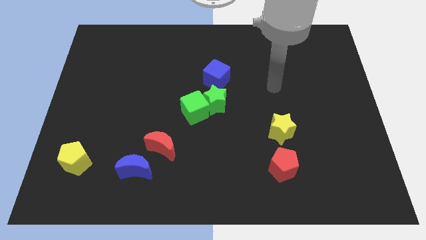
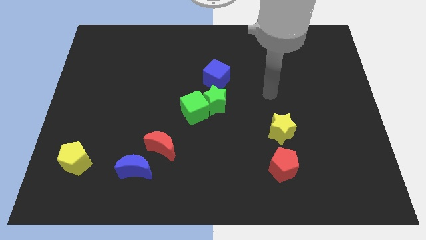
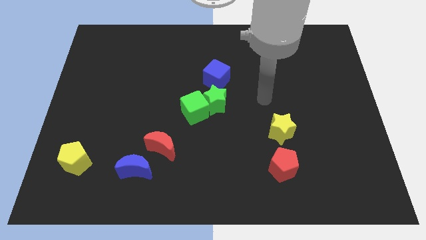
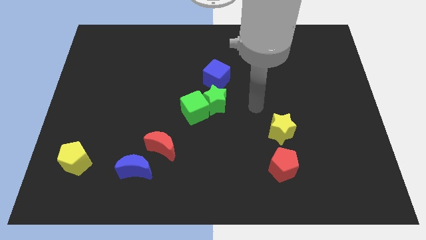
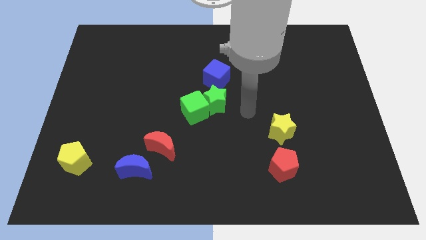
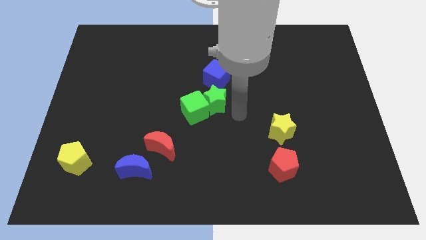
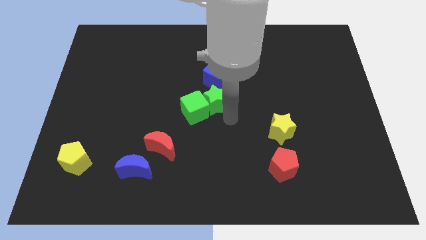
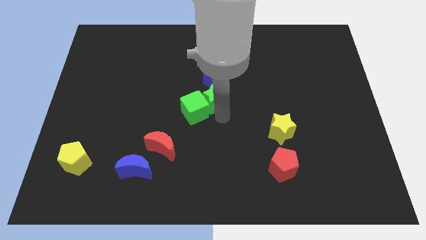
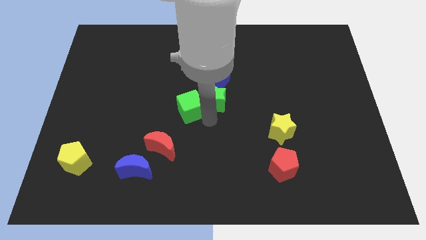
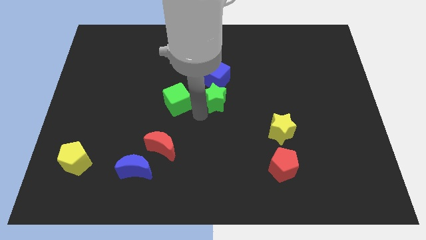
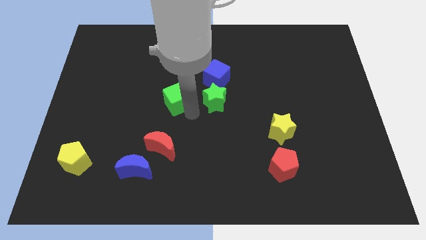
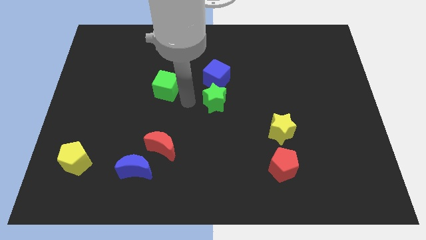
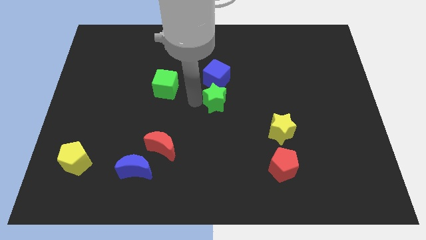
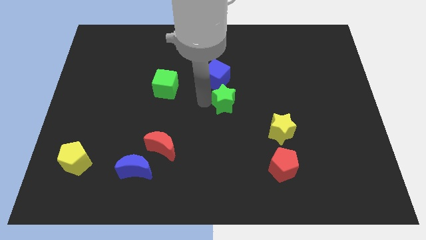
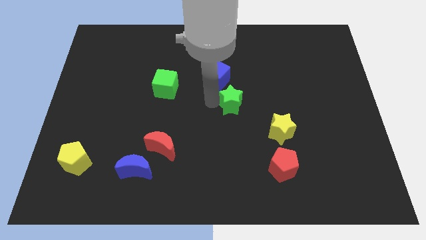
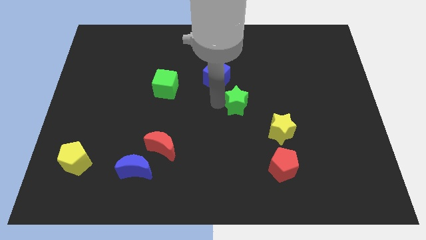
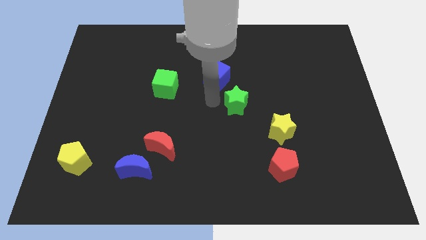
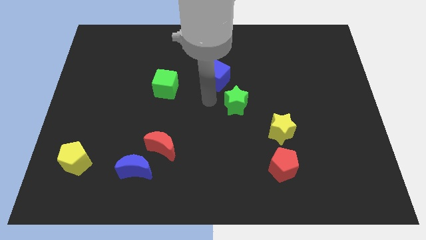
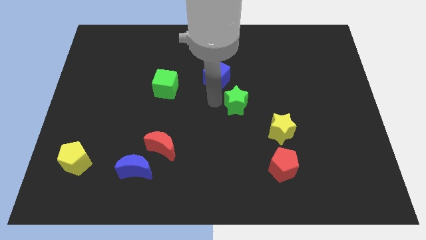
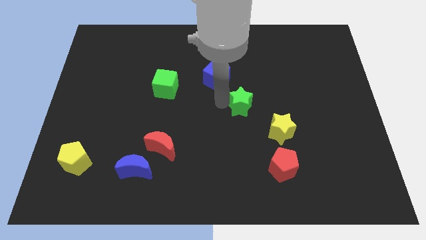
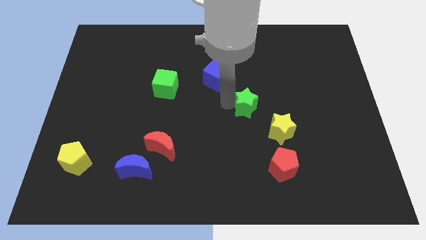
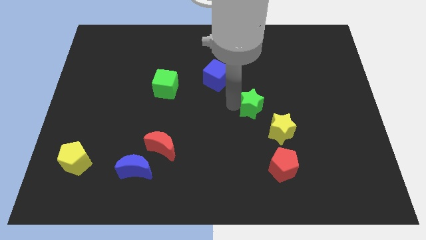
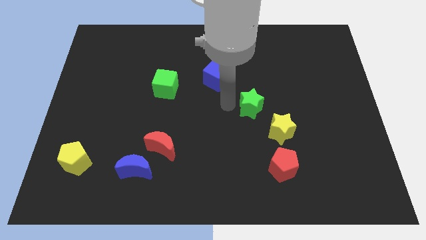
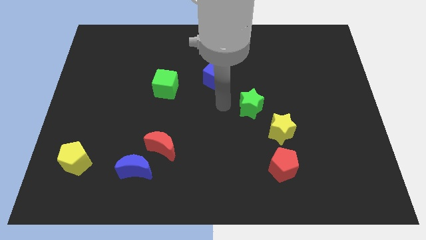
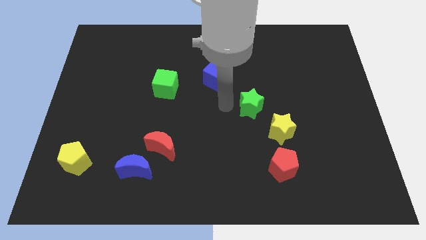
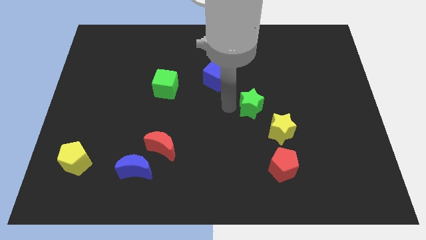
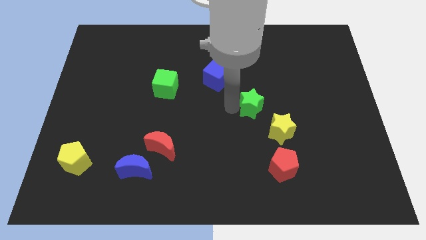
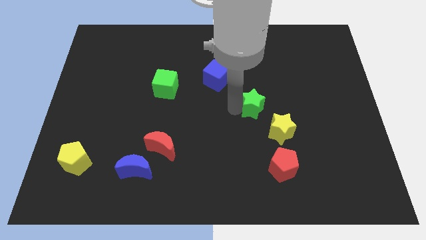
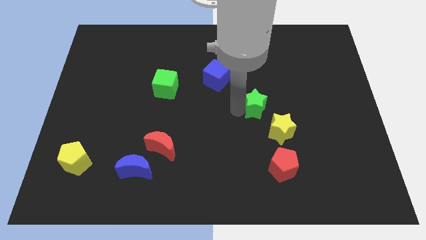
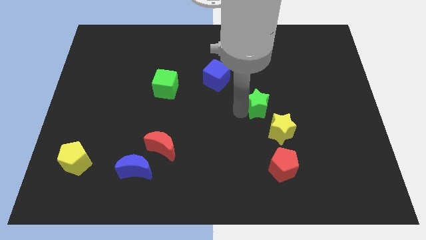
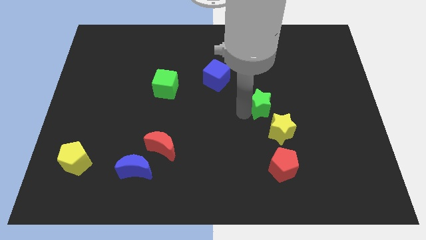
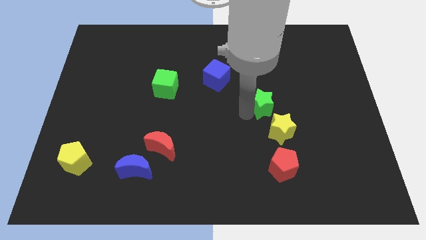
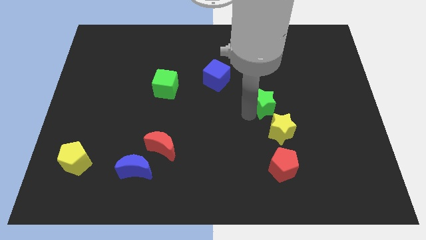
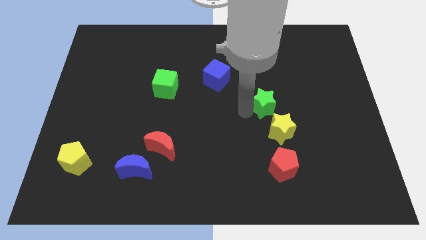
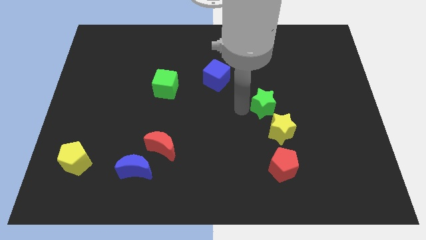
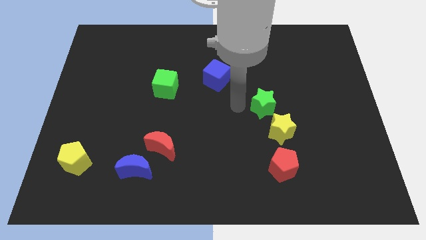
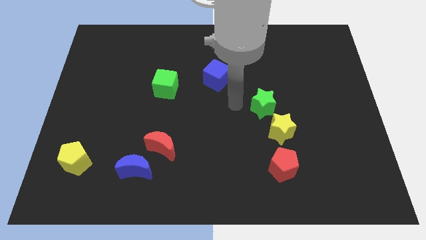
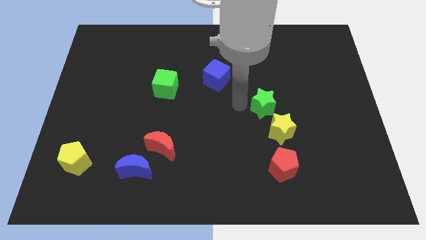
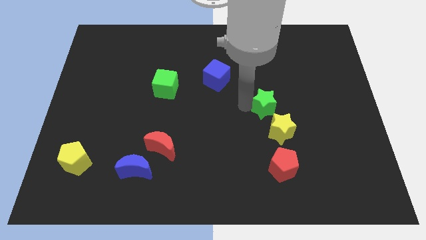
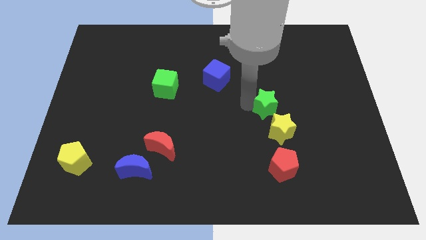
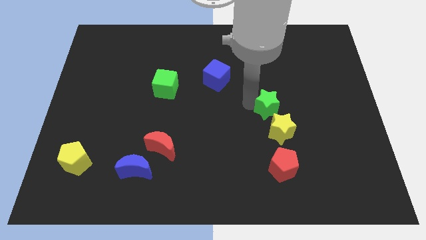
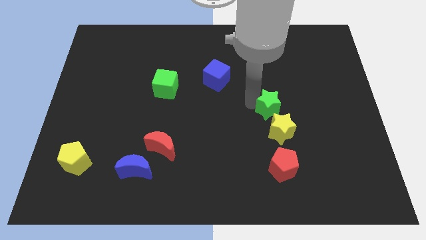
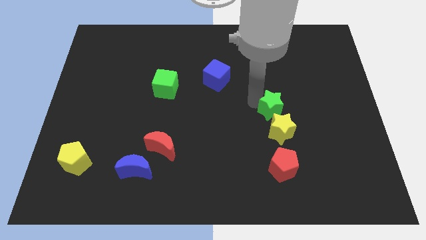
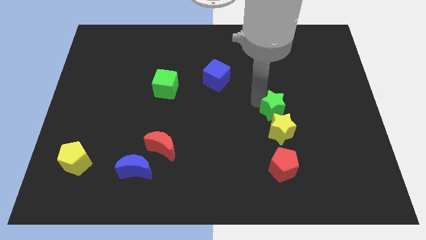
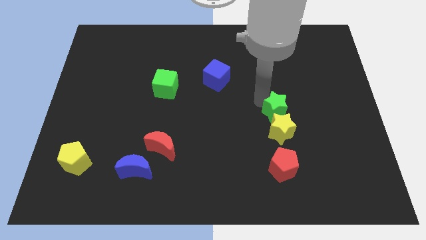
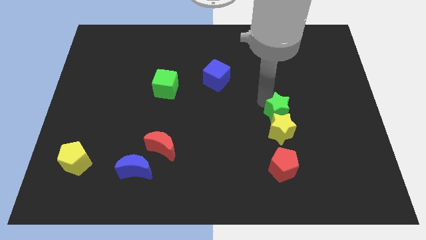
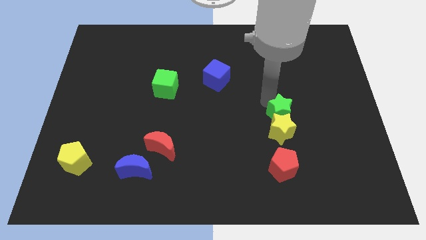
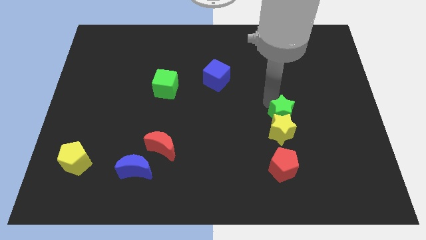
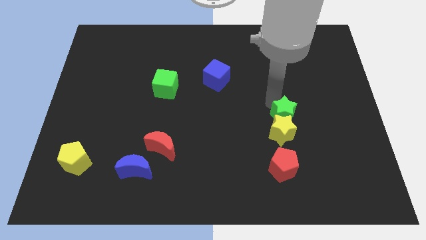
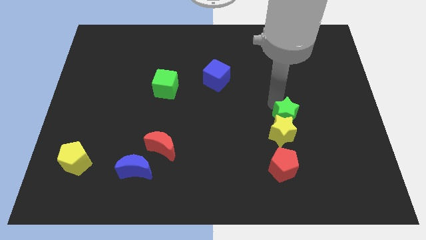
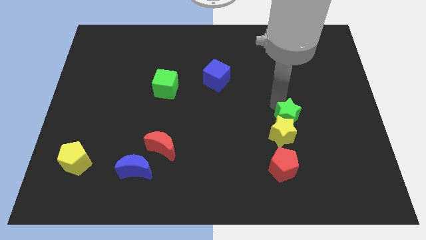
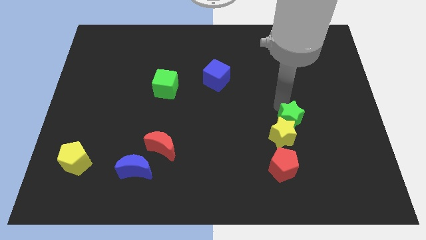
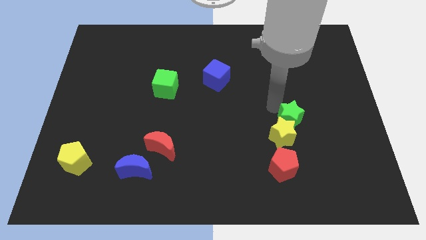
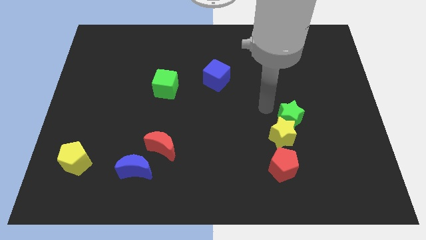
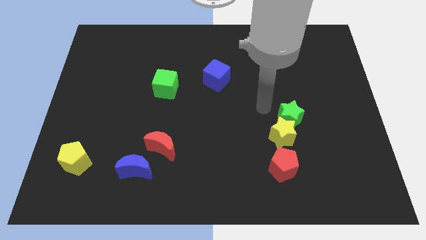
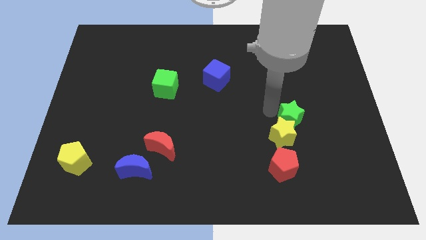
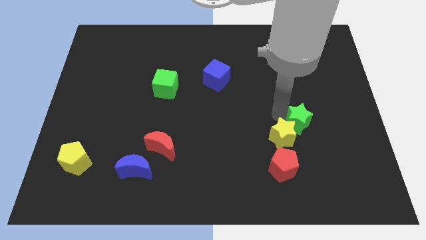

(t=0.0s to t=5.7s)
push the green star right of the yellow star

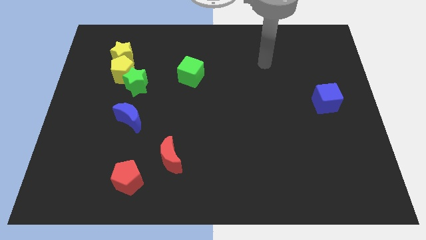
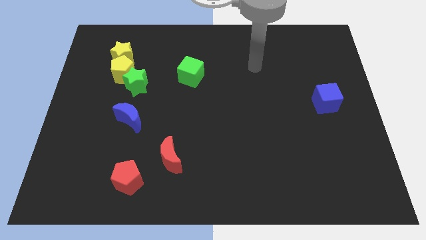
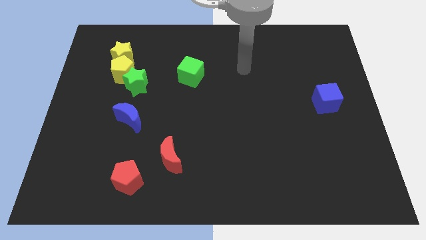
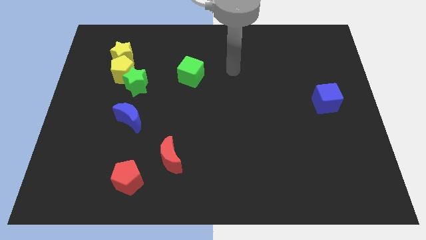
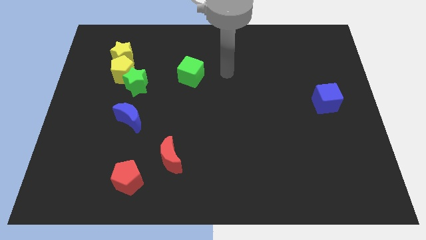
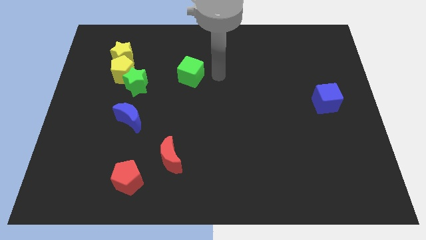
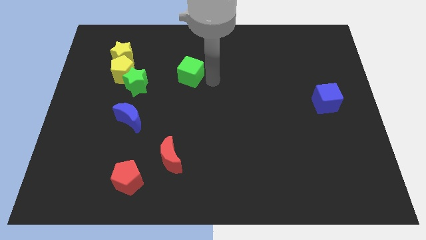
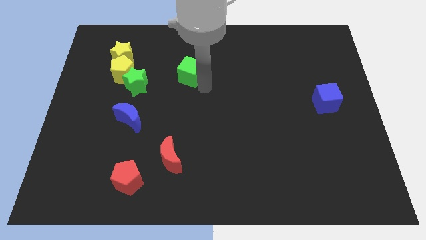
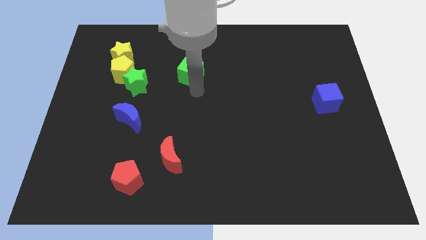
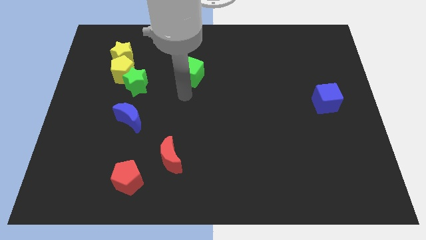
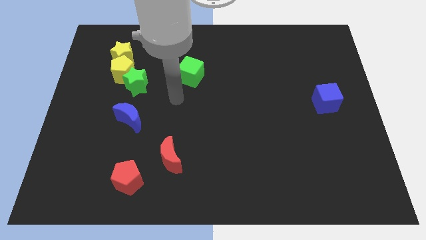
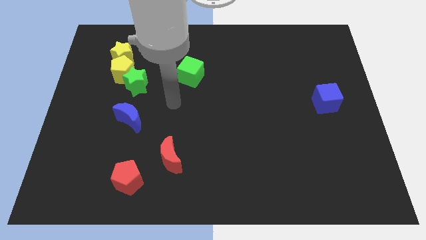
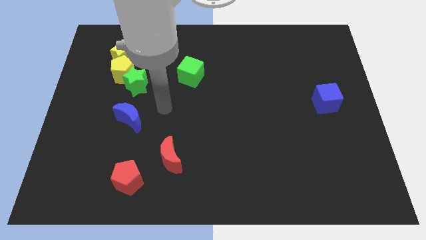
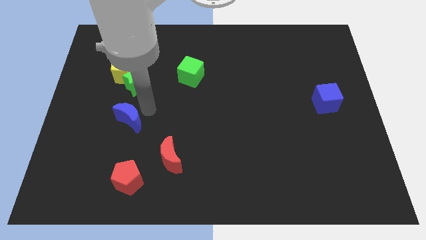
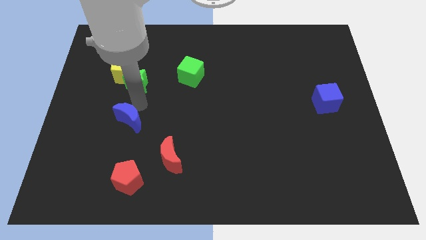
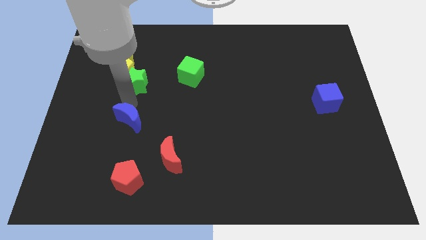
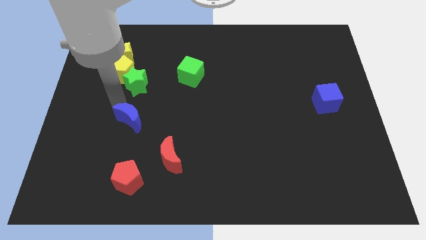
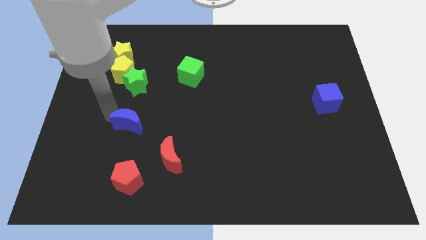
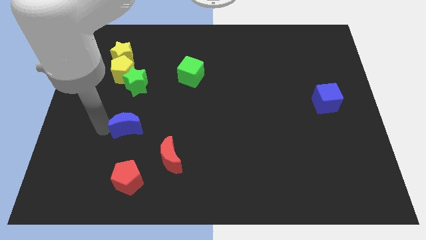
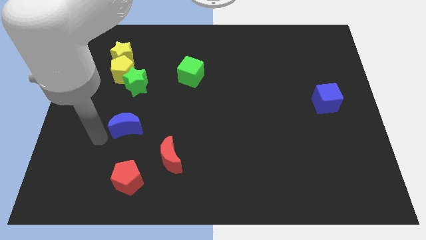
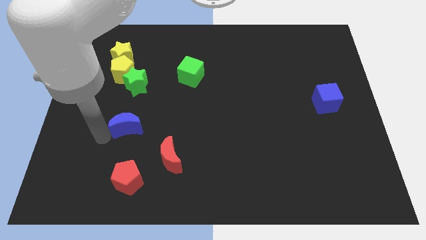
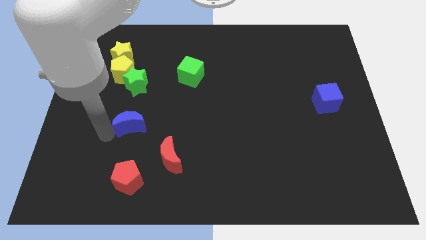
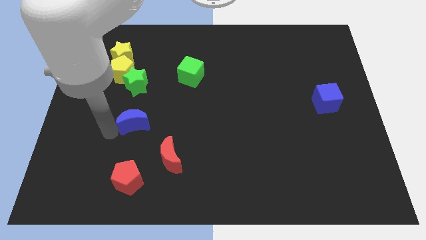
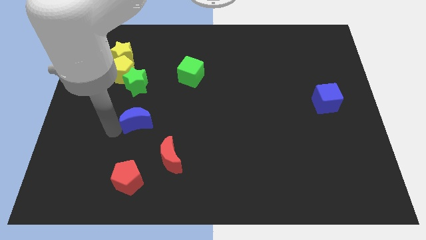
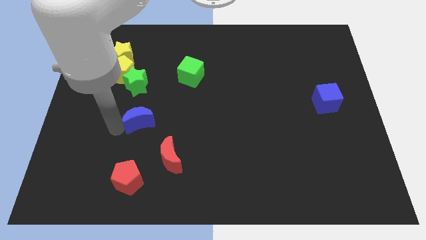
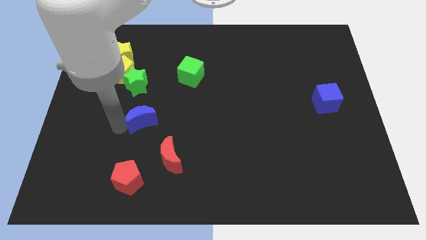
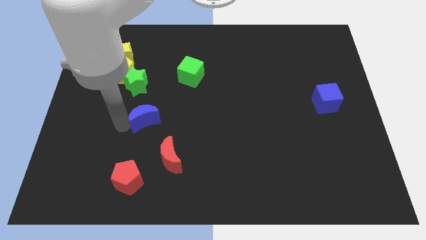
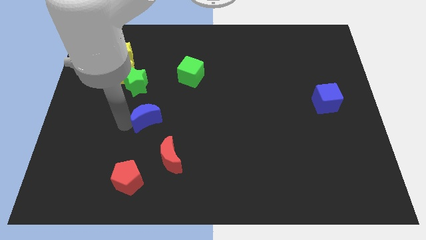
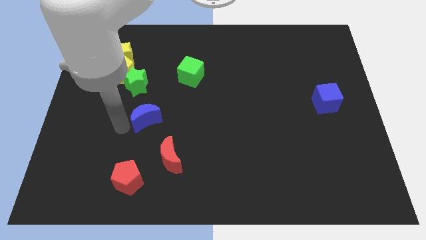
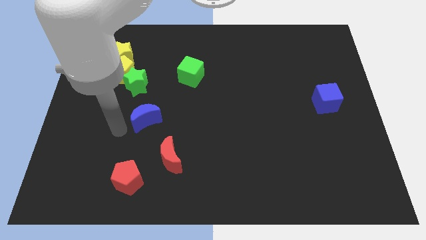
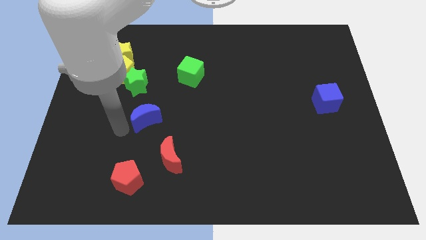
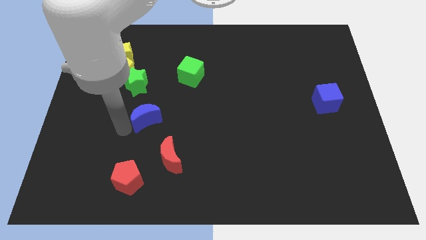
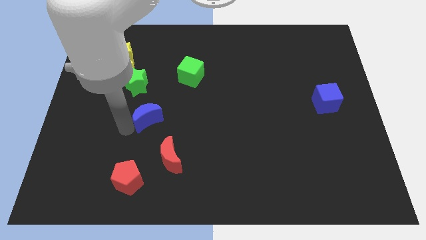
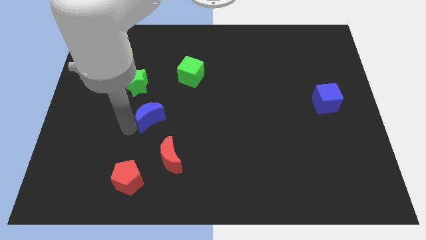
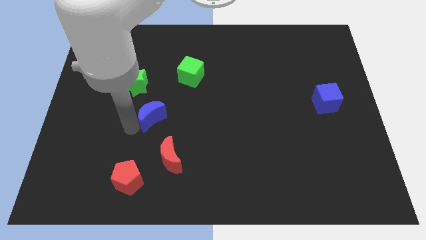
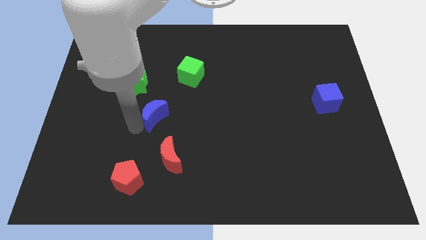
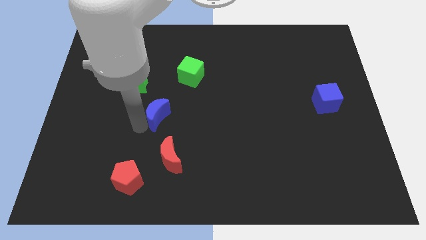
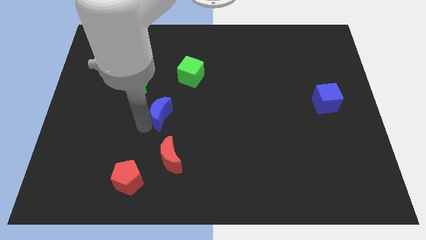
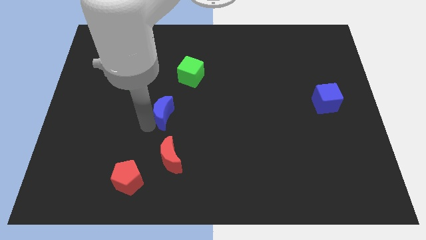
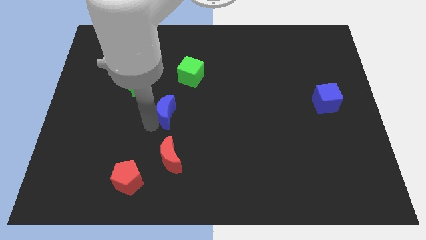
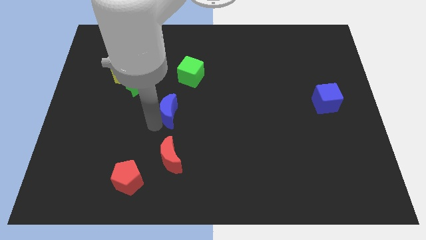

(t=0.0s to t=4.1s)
push the blue moon to the bottom side of the green cube
